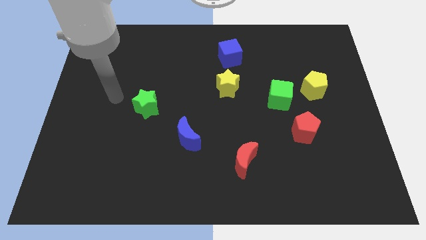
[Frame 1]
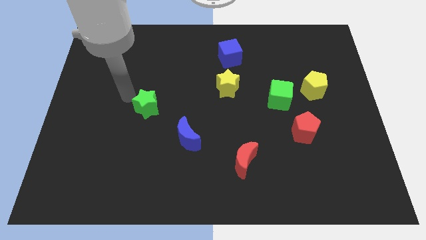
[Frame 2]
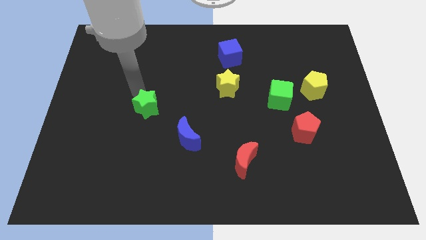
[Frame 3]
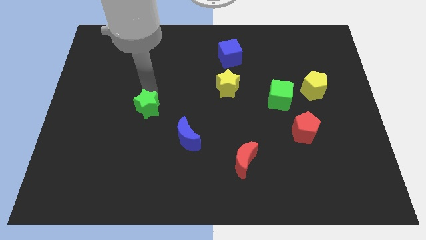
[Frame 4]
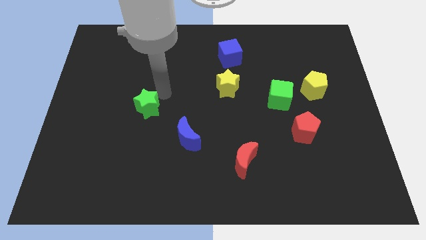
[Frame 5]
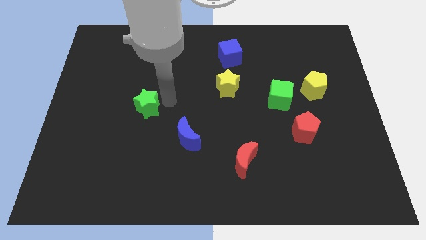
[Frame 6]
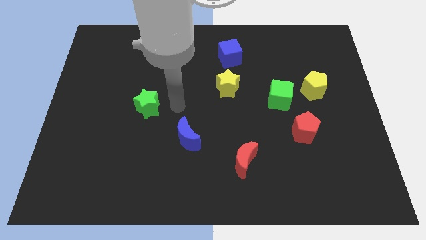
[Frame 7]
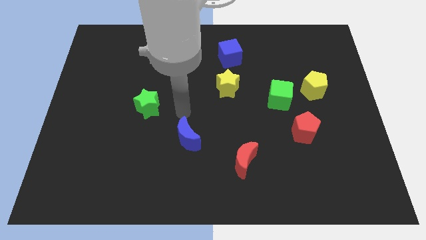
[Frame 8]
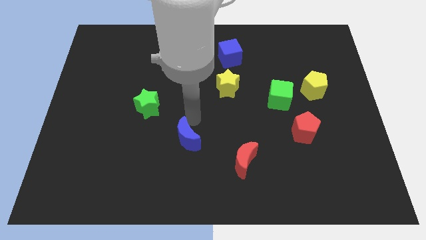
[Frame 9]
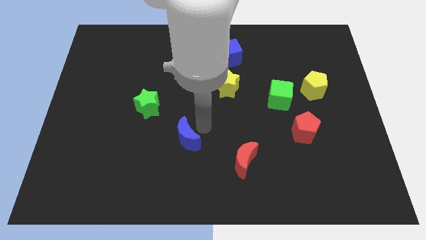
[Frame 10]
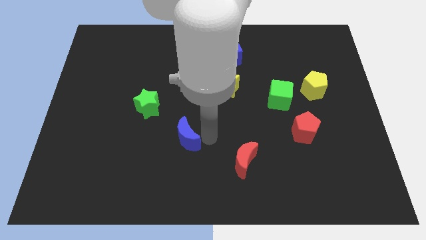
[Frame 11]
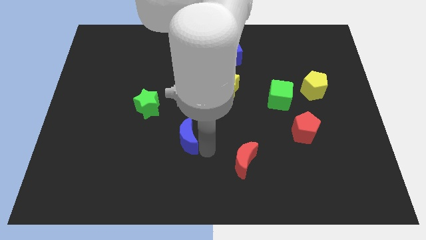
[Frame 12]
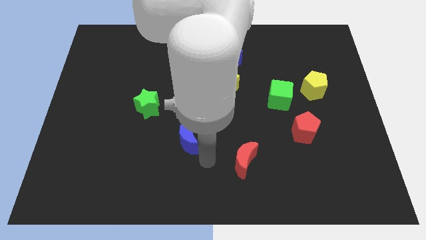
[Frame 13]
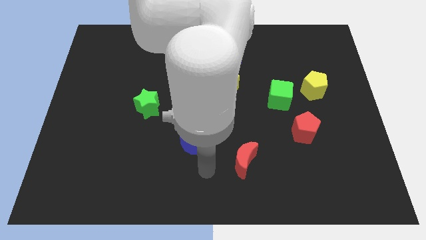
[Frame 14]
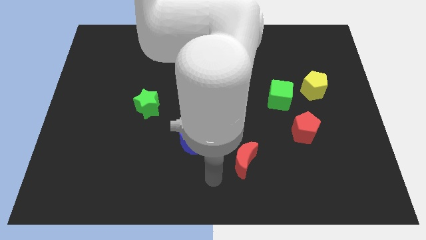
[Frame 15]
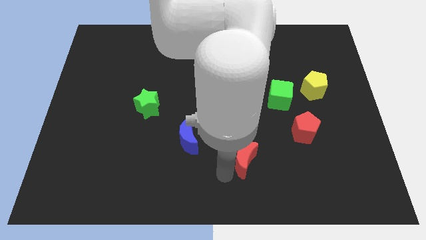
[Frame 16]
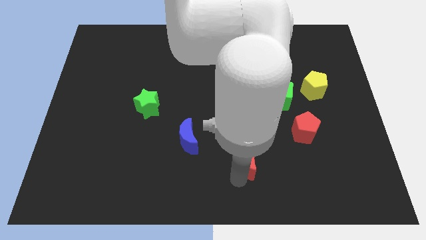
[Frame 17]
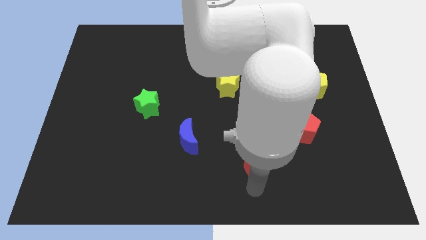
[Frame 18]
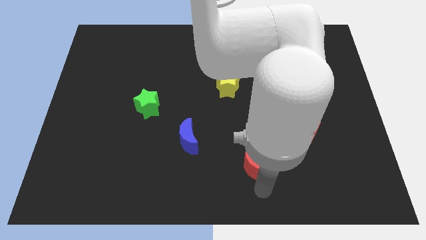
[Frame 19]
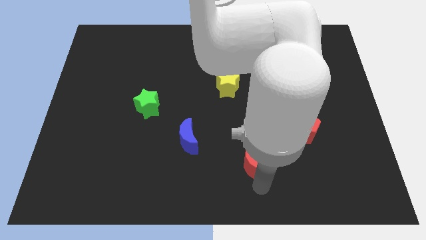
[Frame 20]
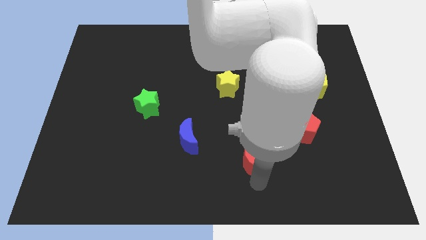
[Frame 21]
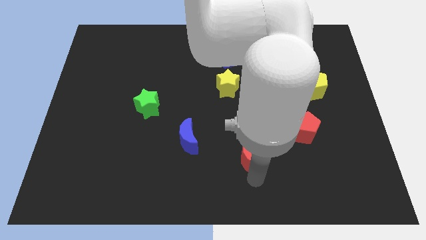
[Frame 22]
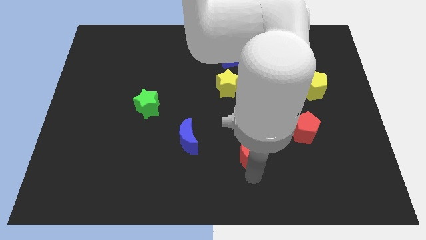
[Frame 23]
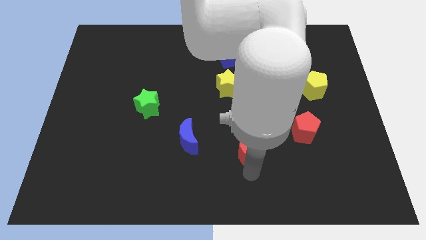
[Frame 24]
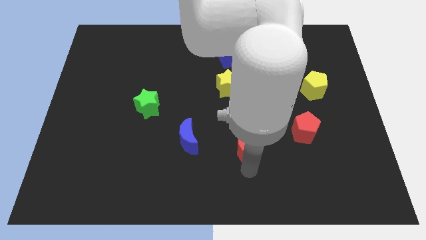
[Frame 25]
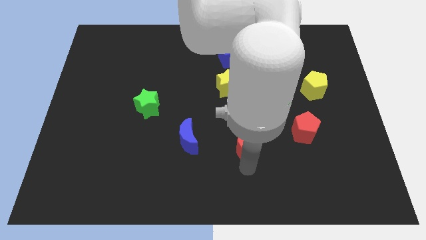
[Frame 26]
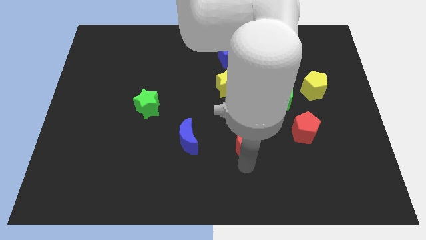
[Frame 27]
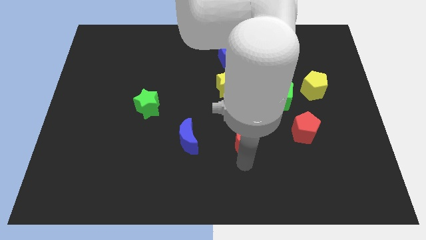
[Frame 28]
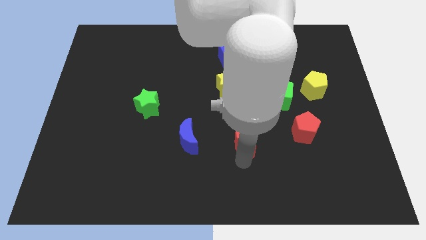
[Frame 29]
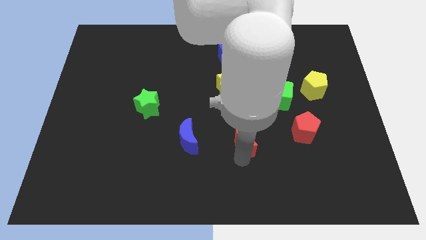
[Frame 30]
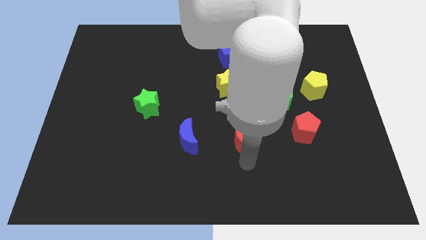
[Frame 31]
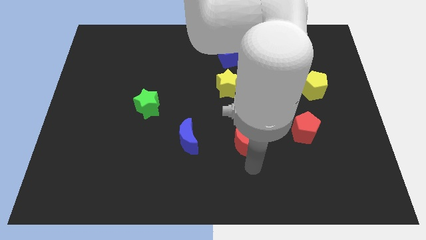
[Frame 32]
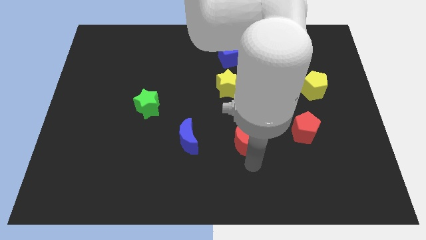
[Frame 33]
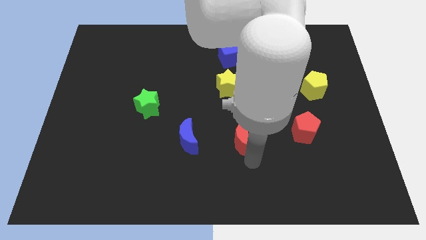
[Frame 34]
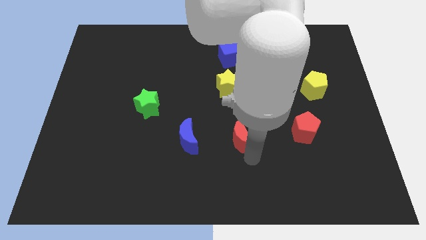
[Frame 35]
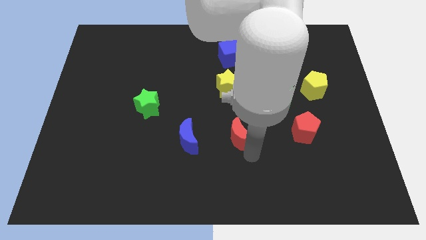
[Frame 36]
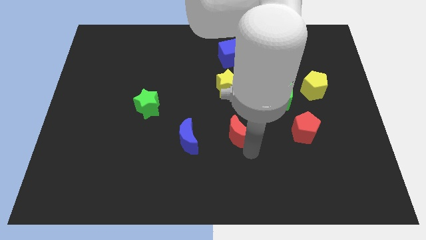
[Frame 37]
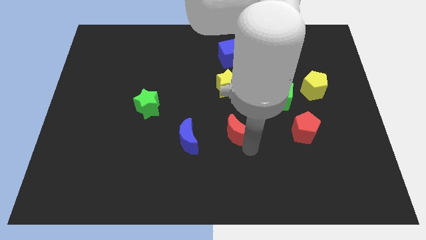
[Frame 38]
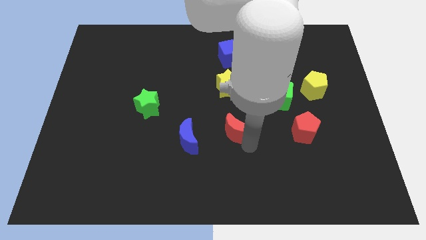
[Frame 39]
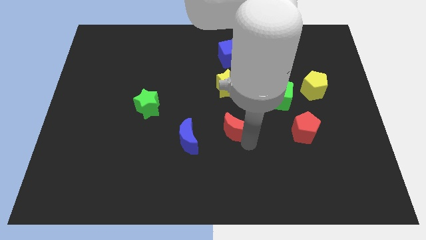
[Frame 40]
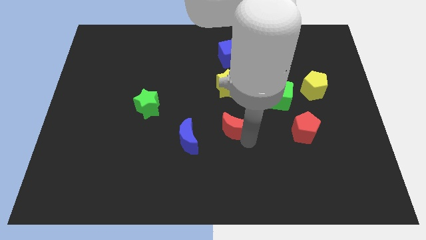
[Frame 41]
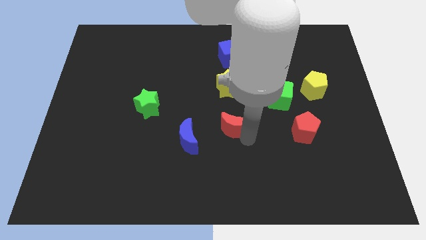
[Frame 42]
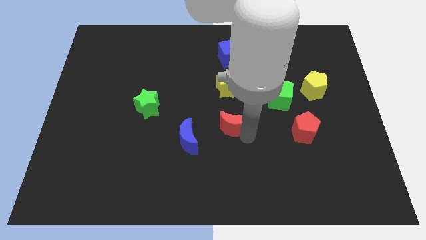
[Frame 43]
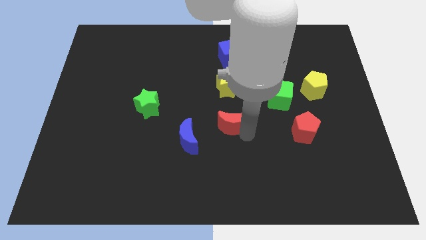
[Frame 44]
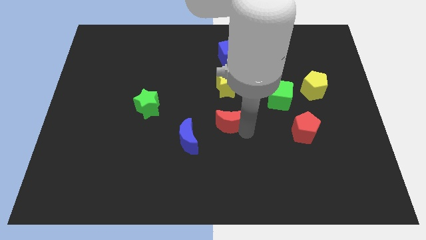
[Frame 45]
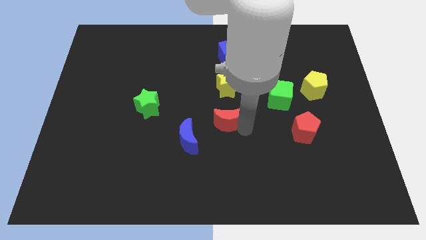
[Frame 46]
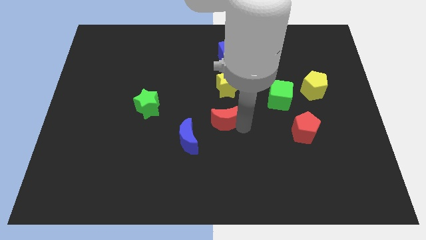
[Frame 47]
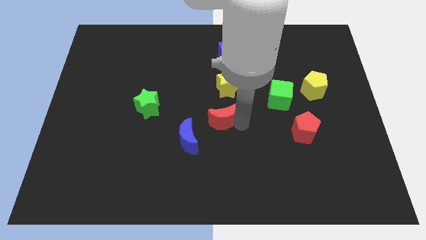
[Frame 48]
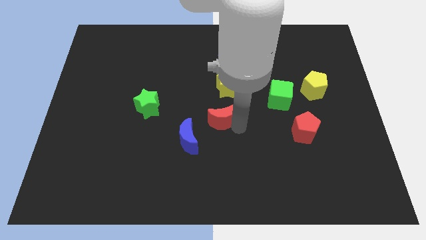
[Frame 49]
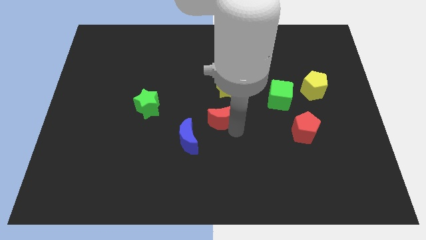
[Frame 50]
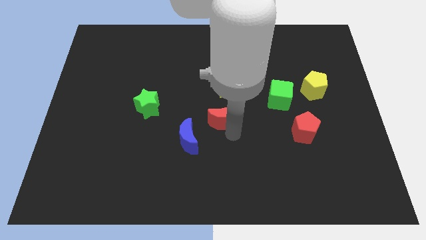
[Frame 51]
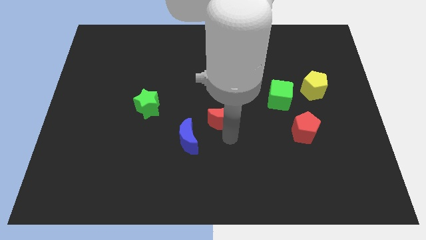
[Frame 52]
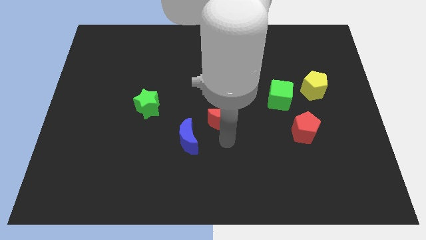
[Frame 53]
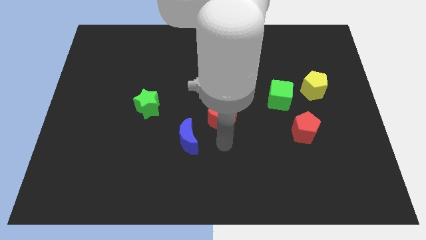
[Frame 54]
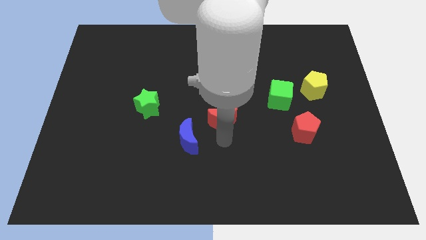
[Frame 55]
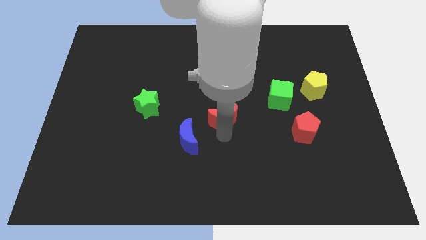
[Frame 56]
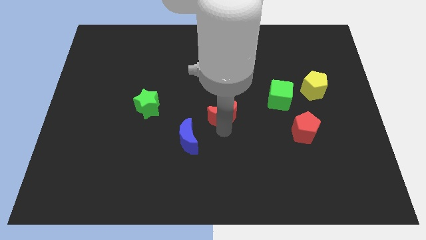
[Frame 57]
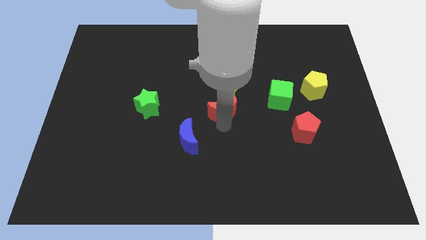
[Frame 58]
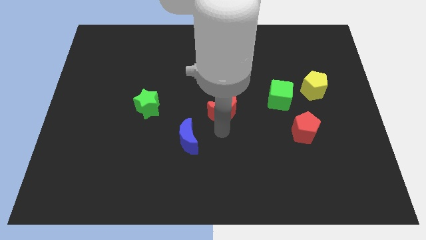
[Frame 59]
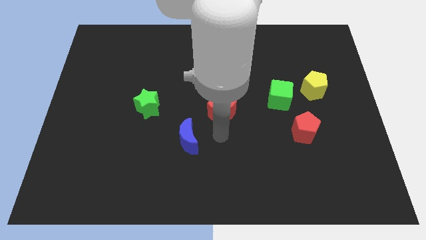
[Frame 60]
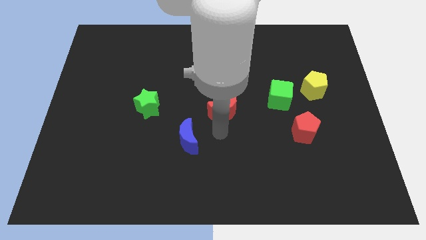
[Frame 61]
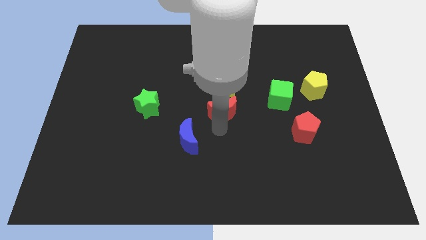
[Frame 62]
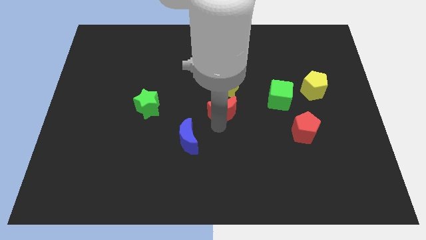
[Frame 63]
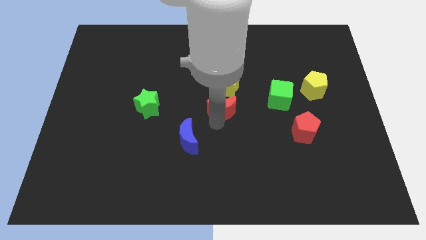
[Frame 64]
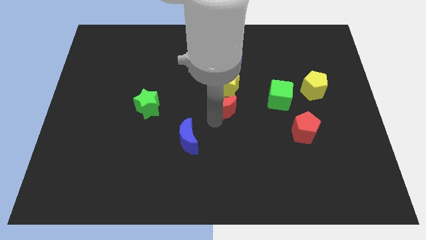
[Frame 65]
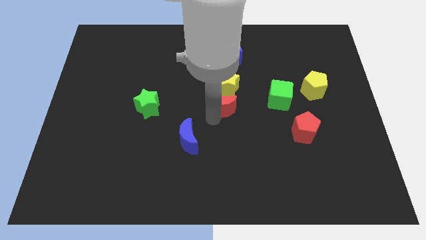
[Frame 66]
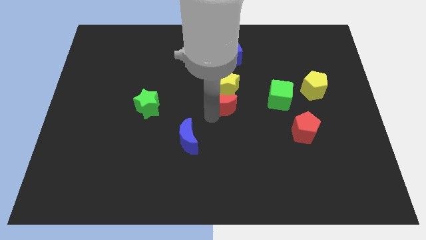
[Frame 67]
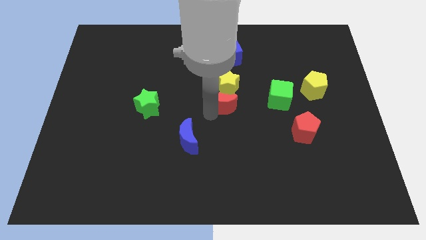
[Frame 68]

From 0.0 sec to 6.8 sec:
slide the red moon towards the yellow star
